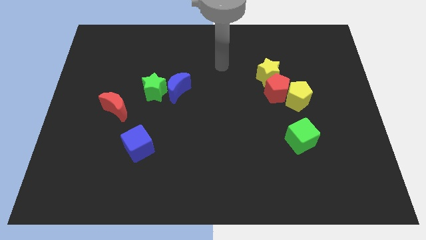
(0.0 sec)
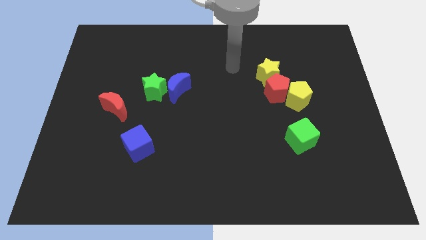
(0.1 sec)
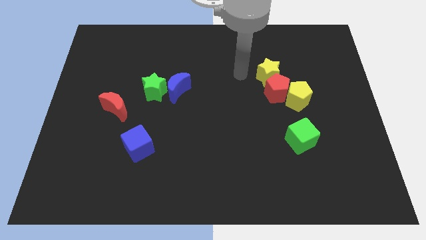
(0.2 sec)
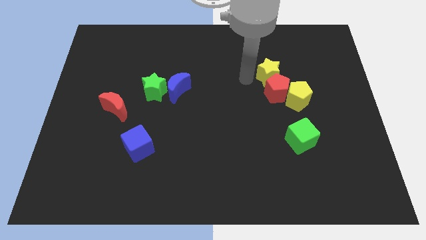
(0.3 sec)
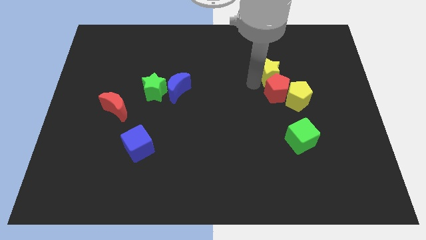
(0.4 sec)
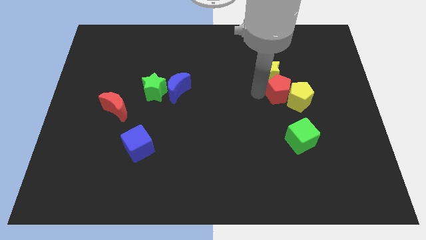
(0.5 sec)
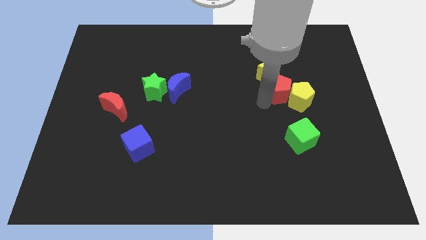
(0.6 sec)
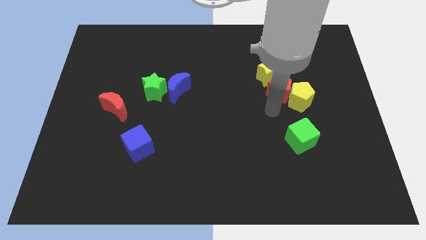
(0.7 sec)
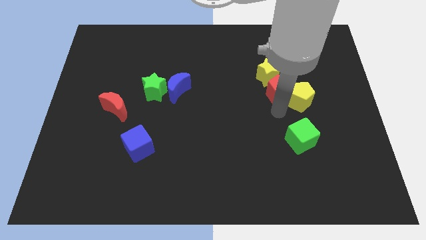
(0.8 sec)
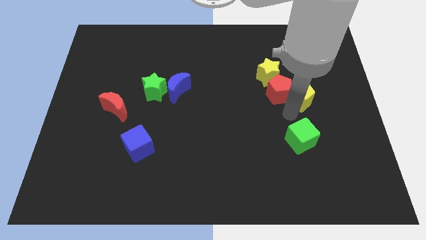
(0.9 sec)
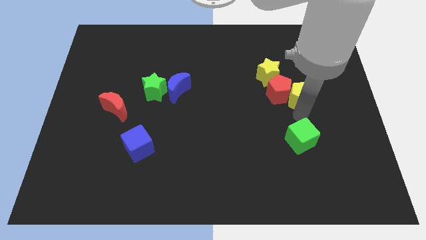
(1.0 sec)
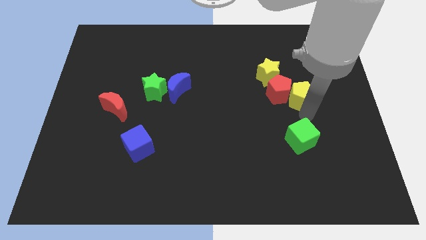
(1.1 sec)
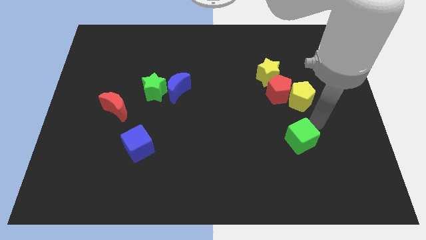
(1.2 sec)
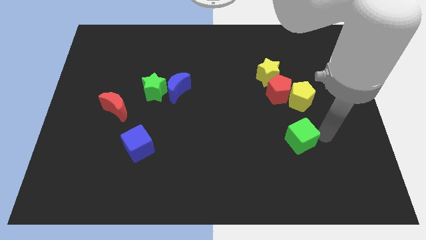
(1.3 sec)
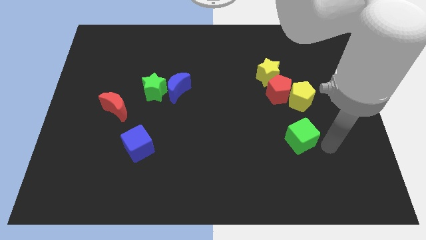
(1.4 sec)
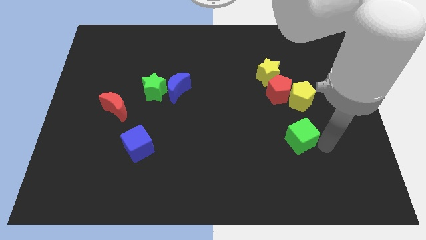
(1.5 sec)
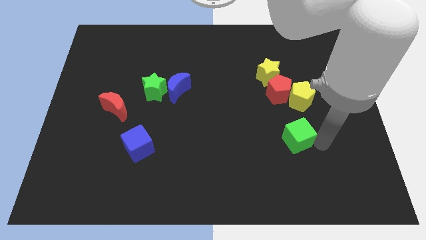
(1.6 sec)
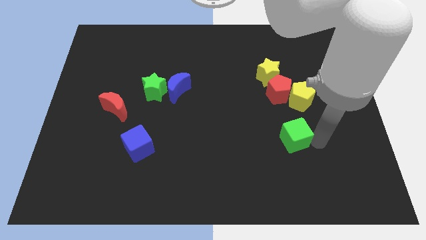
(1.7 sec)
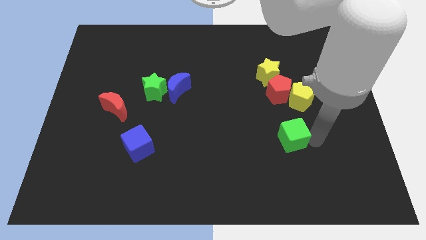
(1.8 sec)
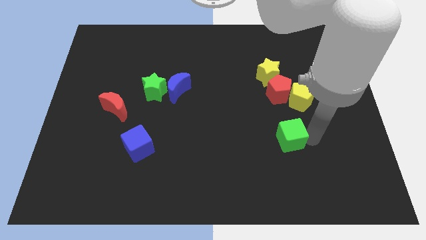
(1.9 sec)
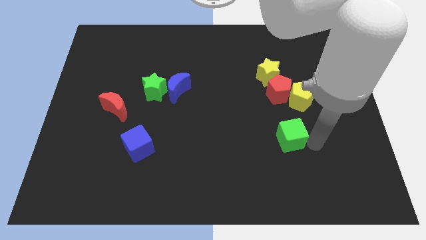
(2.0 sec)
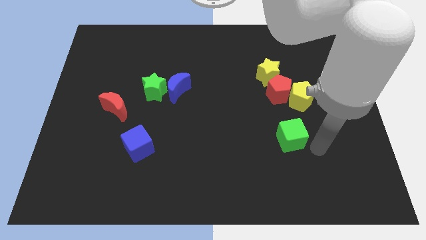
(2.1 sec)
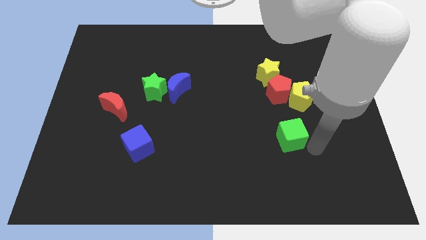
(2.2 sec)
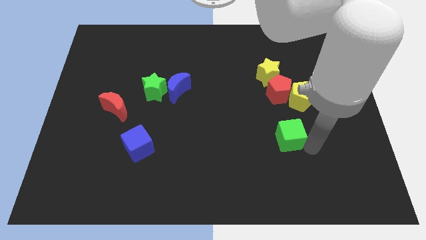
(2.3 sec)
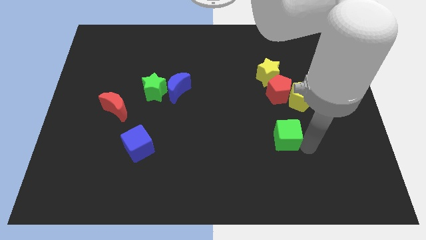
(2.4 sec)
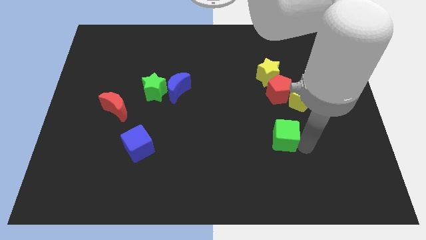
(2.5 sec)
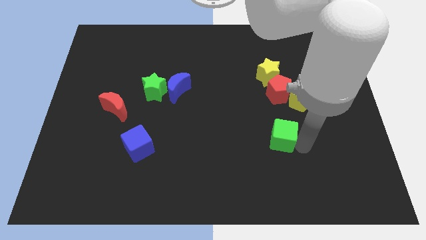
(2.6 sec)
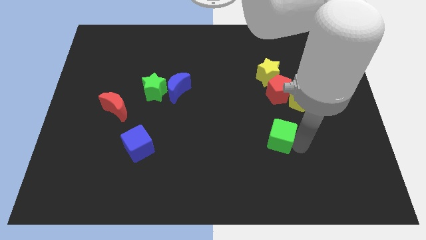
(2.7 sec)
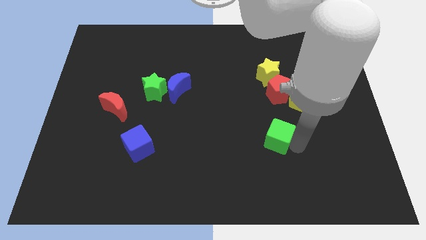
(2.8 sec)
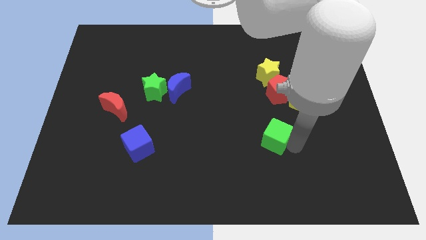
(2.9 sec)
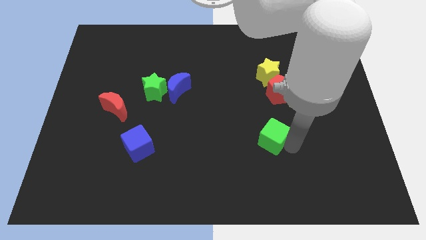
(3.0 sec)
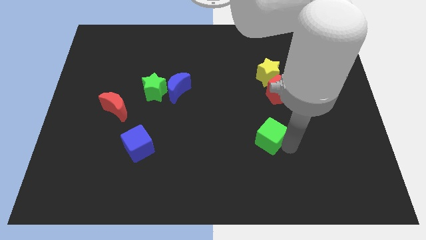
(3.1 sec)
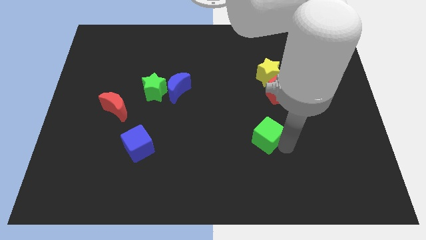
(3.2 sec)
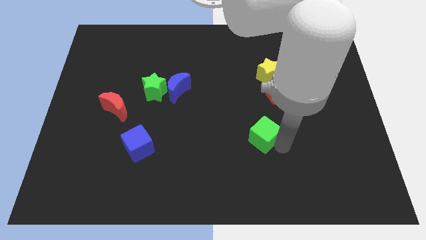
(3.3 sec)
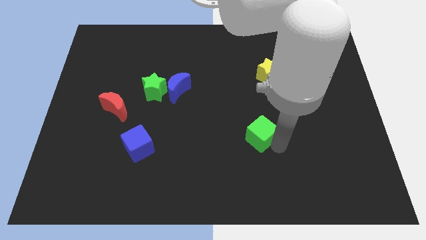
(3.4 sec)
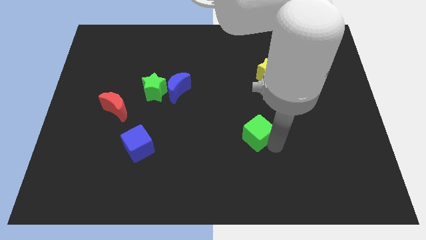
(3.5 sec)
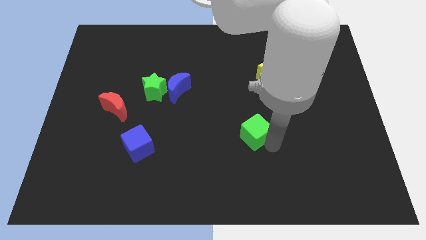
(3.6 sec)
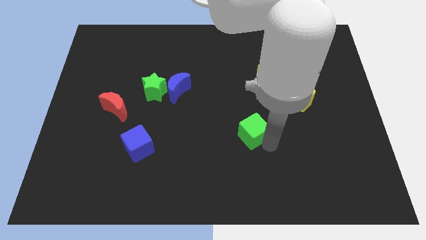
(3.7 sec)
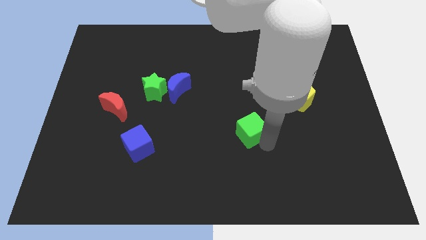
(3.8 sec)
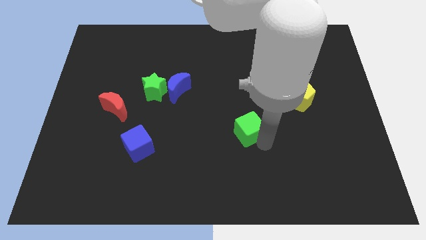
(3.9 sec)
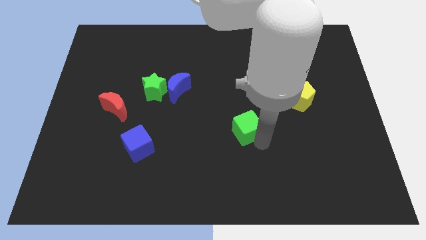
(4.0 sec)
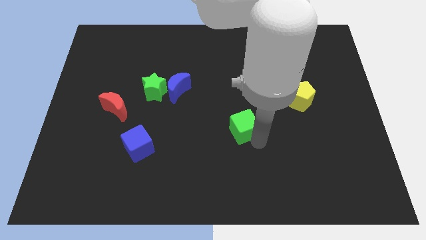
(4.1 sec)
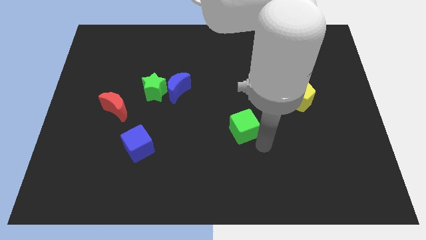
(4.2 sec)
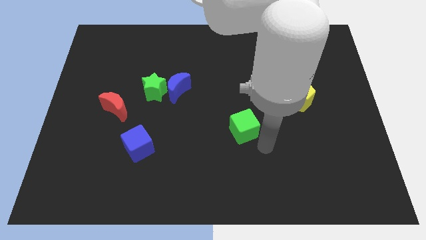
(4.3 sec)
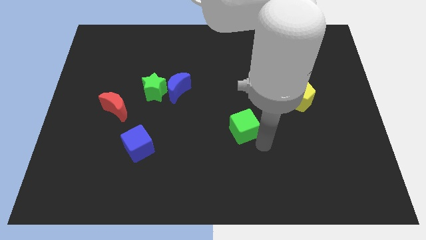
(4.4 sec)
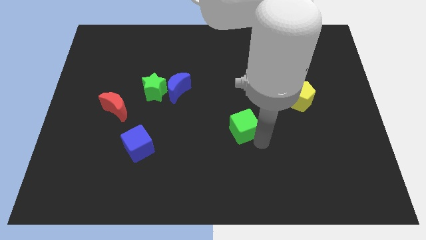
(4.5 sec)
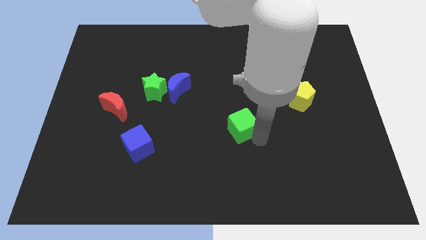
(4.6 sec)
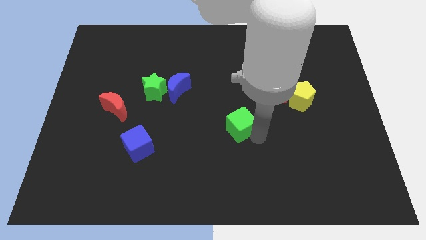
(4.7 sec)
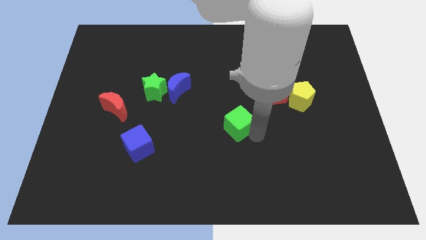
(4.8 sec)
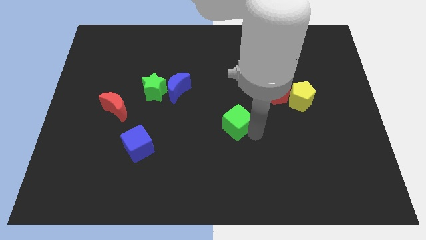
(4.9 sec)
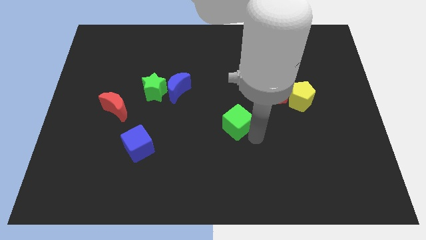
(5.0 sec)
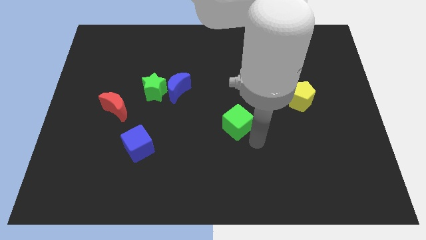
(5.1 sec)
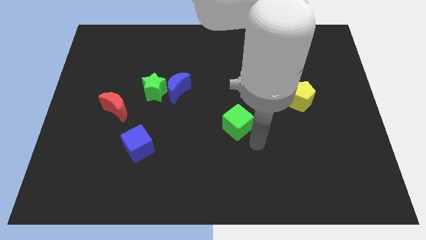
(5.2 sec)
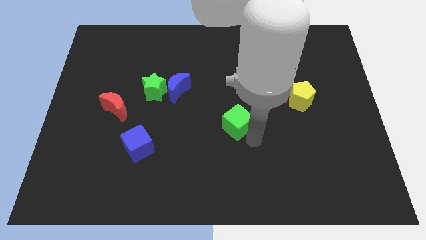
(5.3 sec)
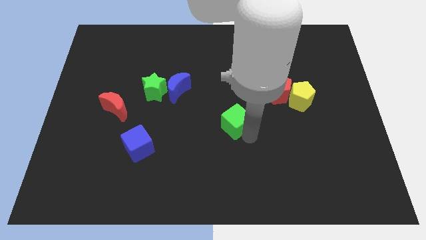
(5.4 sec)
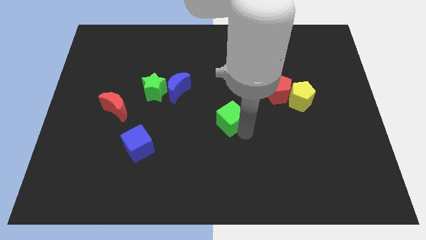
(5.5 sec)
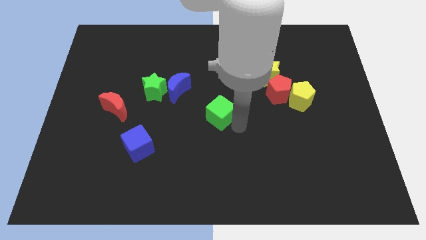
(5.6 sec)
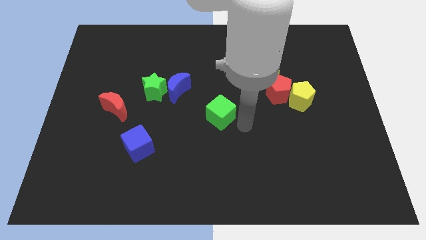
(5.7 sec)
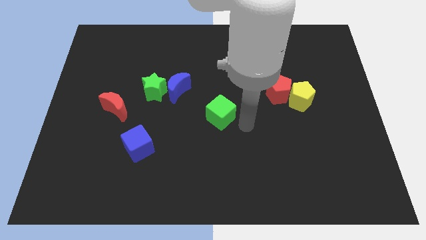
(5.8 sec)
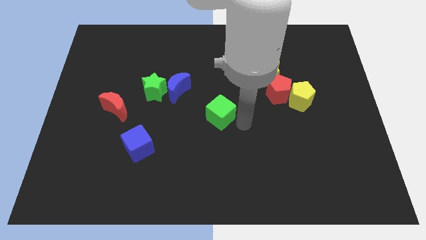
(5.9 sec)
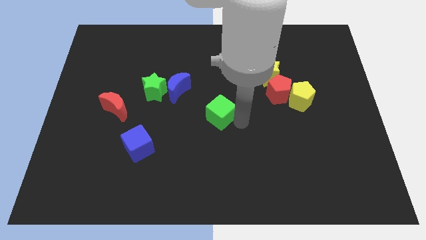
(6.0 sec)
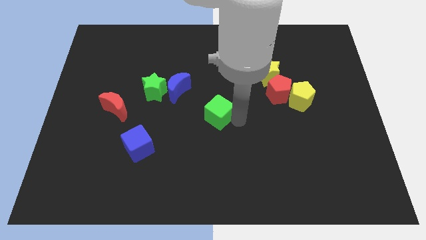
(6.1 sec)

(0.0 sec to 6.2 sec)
slide the green cube to the bottom right of the blue moon
